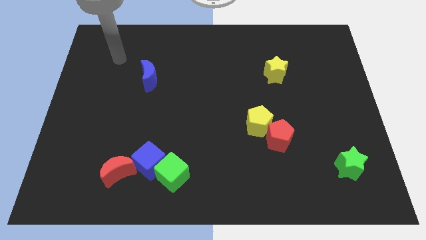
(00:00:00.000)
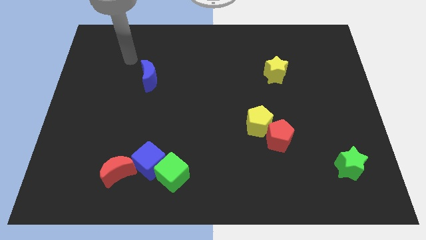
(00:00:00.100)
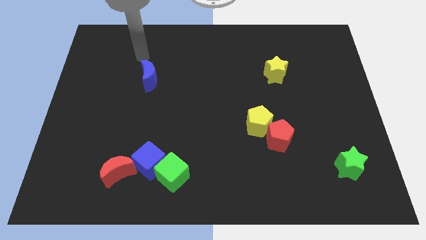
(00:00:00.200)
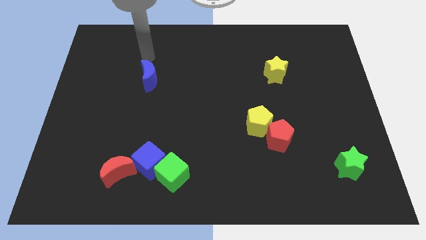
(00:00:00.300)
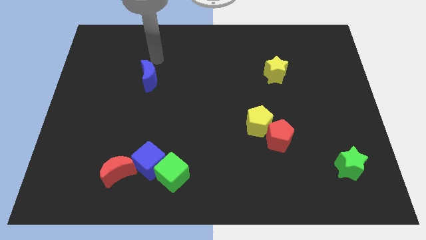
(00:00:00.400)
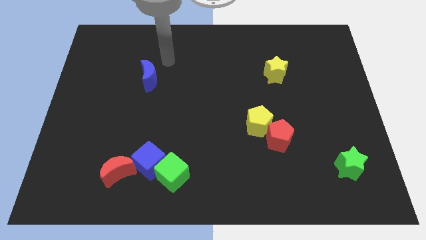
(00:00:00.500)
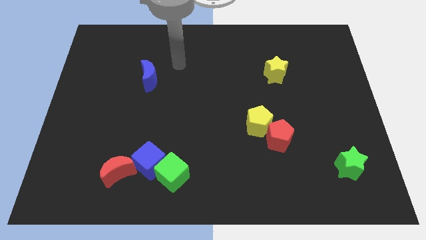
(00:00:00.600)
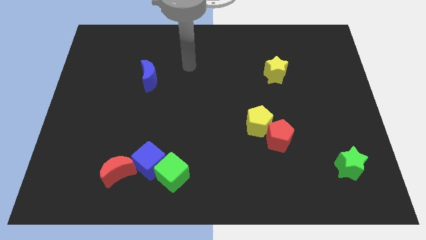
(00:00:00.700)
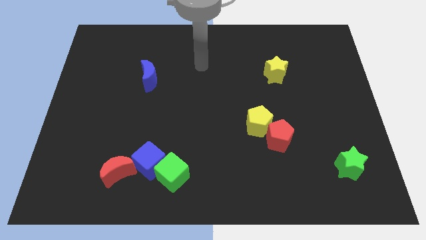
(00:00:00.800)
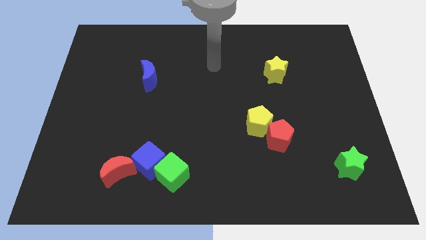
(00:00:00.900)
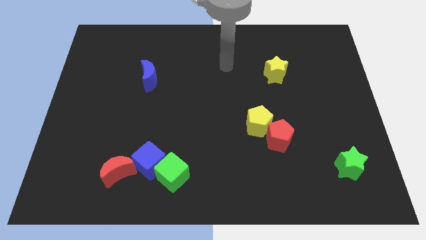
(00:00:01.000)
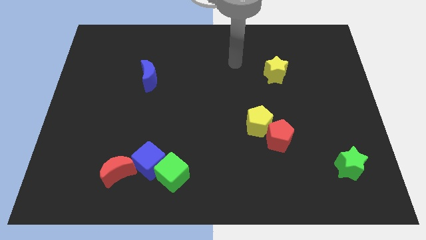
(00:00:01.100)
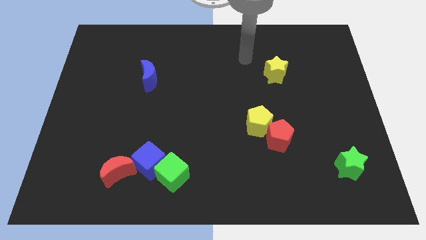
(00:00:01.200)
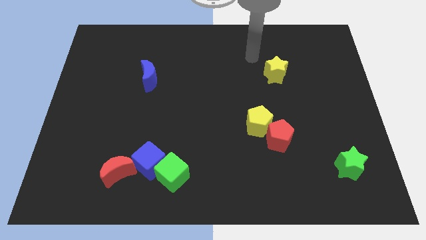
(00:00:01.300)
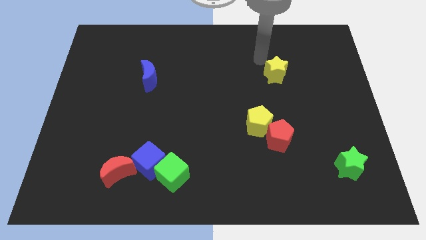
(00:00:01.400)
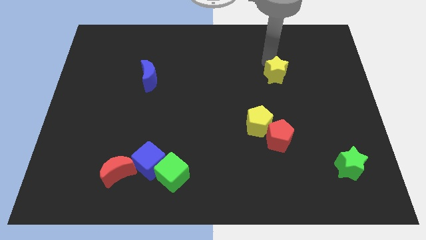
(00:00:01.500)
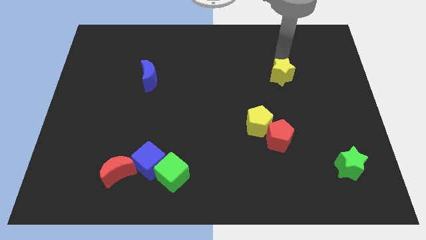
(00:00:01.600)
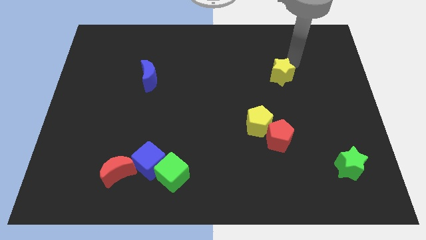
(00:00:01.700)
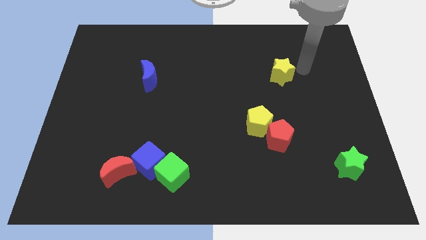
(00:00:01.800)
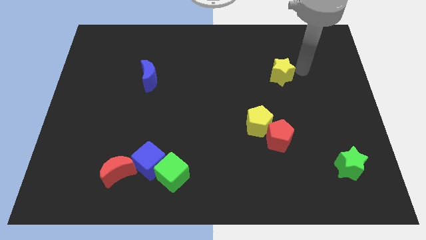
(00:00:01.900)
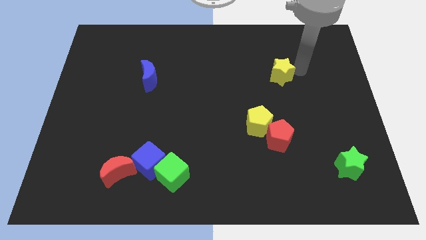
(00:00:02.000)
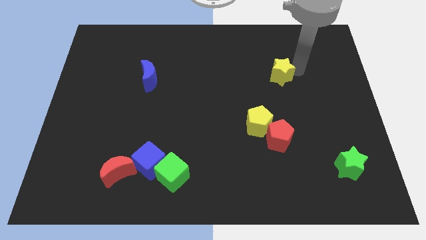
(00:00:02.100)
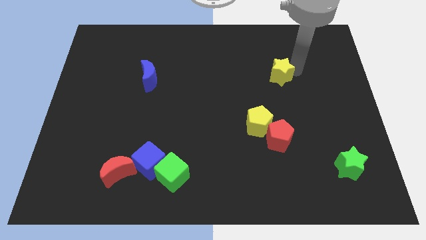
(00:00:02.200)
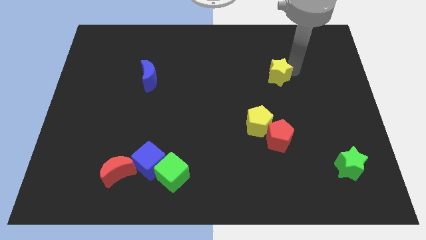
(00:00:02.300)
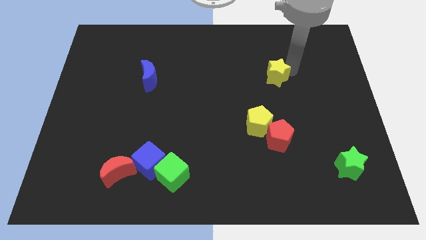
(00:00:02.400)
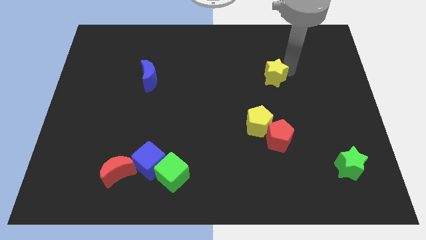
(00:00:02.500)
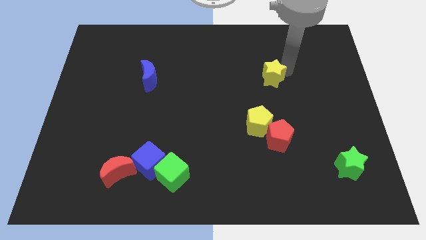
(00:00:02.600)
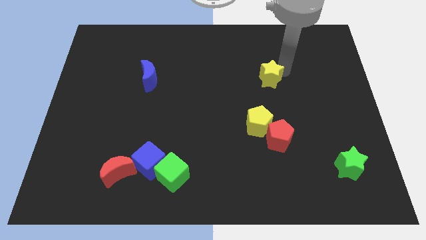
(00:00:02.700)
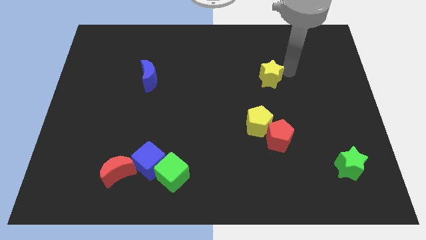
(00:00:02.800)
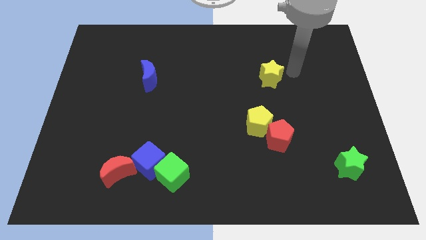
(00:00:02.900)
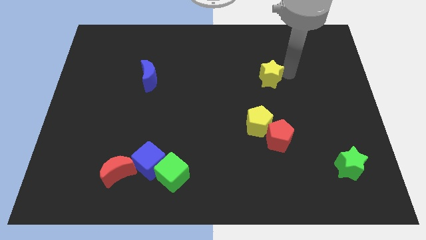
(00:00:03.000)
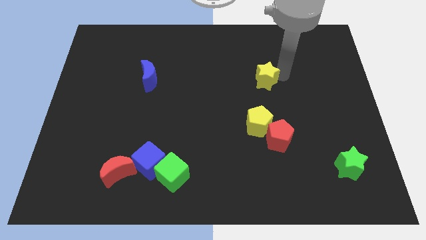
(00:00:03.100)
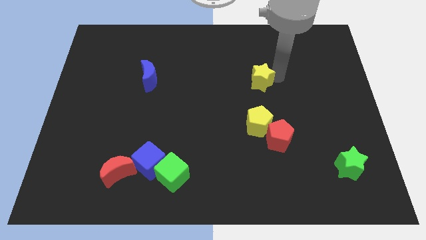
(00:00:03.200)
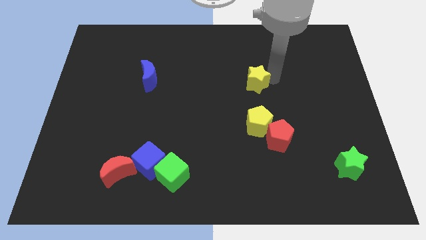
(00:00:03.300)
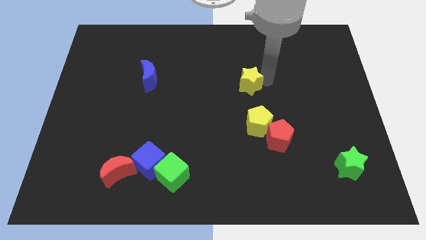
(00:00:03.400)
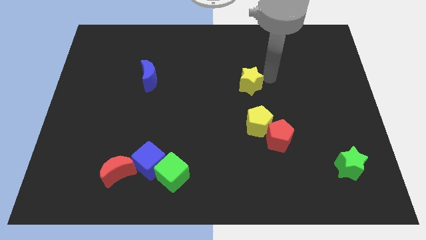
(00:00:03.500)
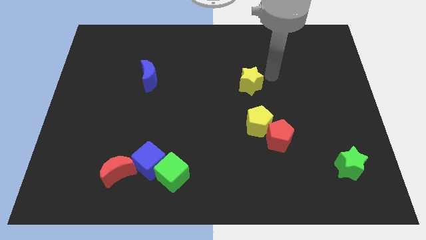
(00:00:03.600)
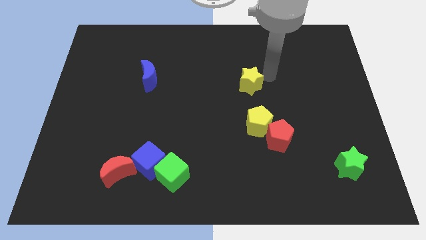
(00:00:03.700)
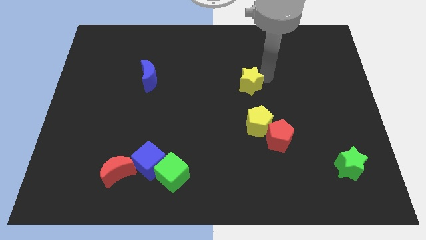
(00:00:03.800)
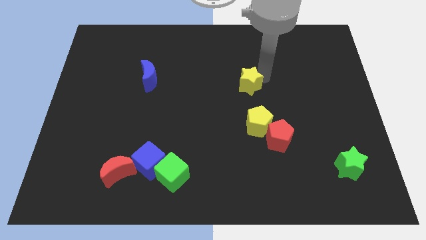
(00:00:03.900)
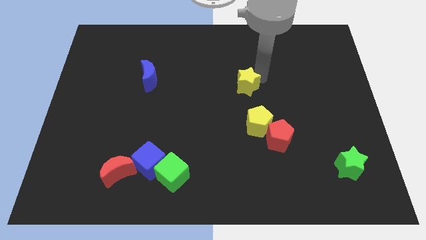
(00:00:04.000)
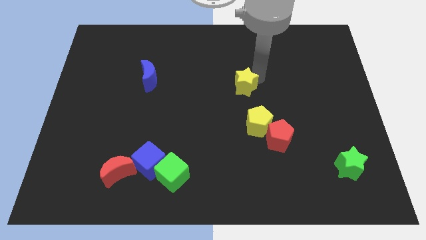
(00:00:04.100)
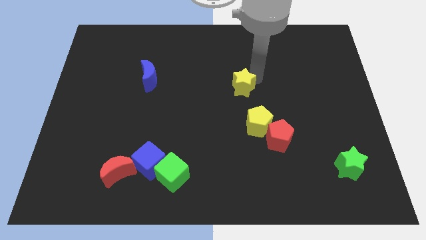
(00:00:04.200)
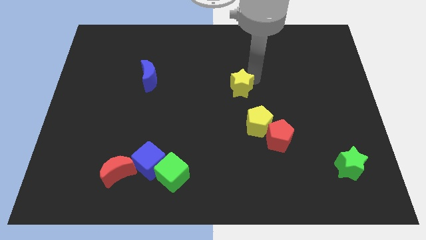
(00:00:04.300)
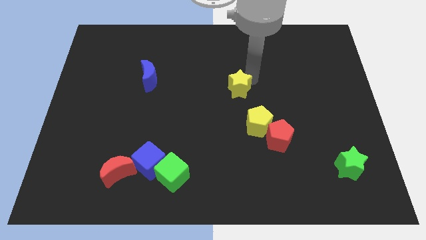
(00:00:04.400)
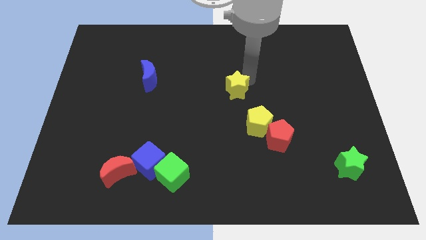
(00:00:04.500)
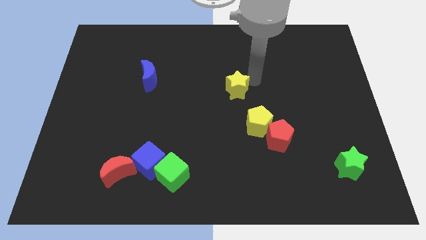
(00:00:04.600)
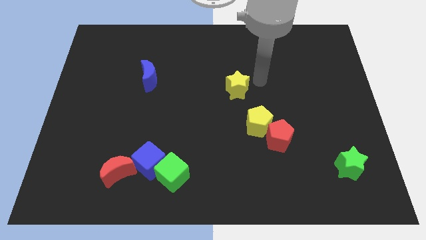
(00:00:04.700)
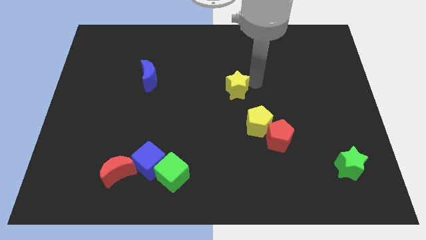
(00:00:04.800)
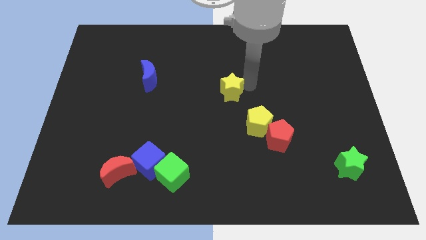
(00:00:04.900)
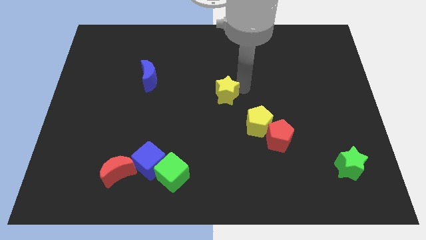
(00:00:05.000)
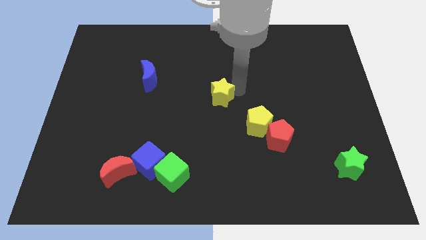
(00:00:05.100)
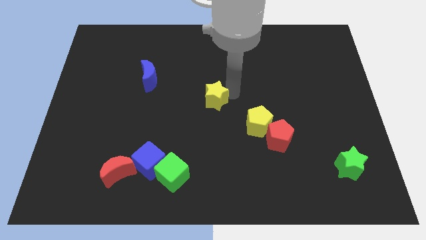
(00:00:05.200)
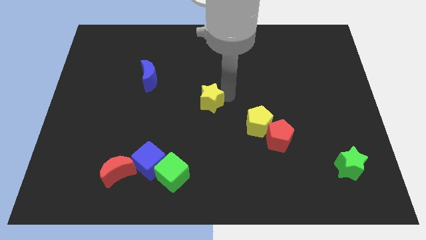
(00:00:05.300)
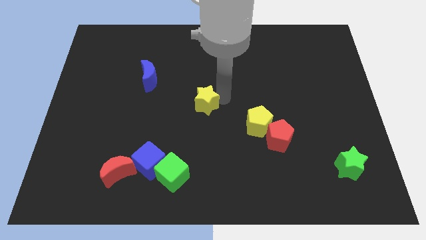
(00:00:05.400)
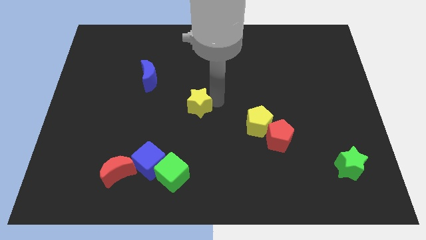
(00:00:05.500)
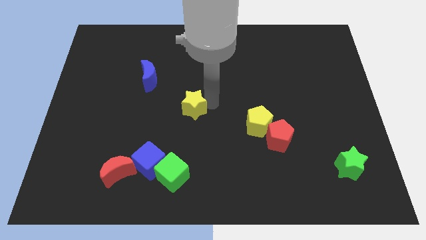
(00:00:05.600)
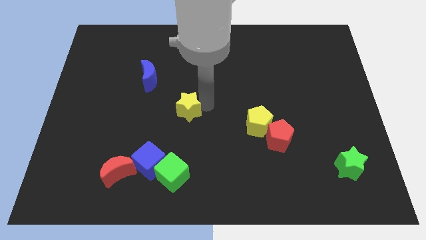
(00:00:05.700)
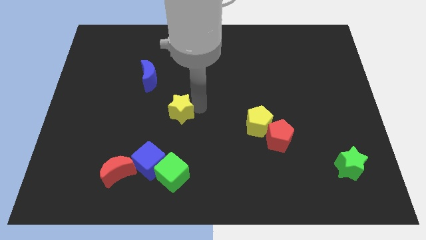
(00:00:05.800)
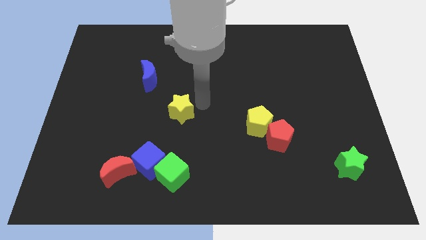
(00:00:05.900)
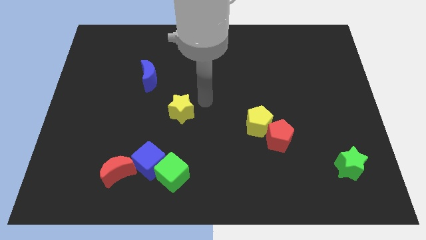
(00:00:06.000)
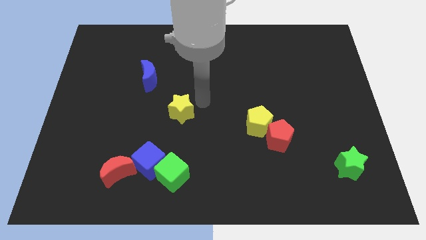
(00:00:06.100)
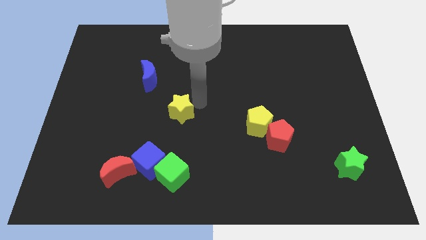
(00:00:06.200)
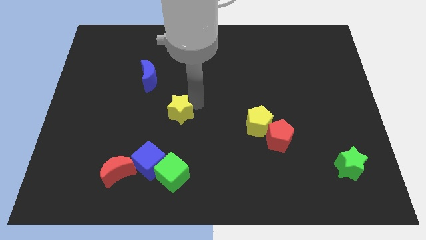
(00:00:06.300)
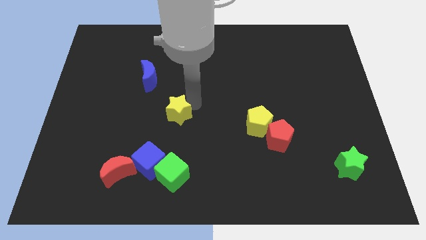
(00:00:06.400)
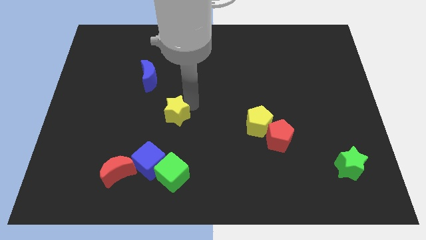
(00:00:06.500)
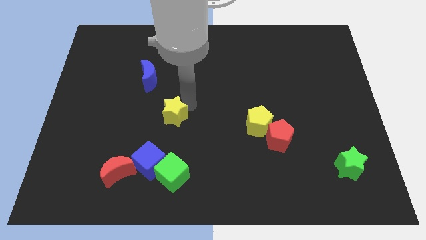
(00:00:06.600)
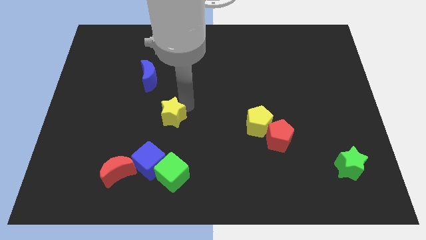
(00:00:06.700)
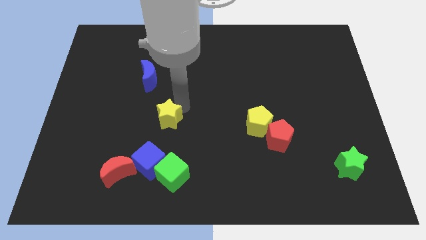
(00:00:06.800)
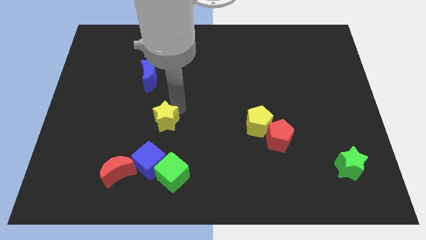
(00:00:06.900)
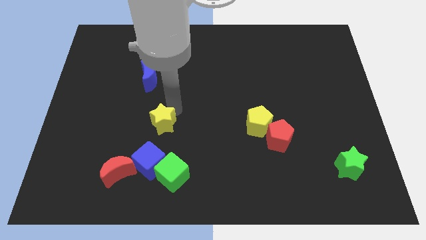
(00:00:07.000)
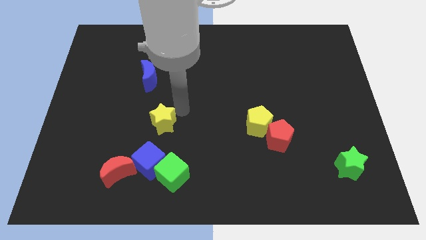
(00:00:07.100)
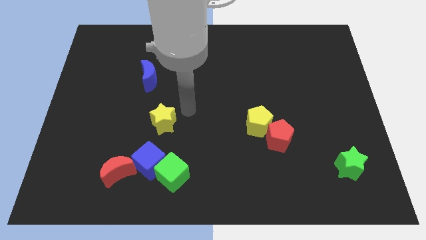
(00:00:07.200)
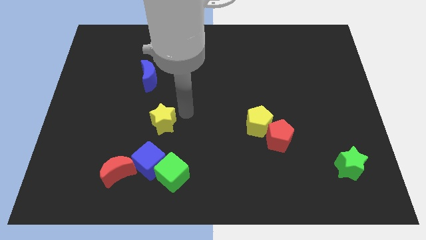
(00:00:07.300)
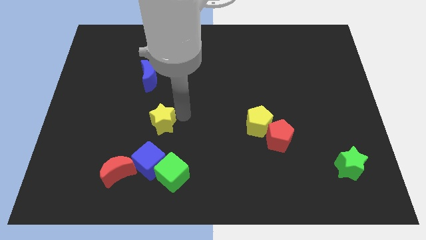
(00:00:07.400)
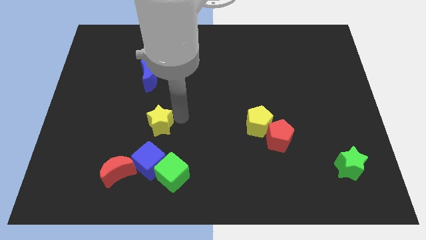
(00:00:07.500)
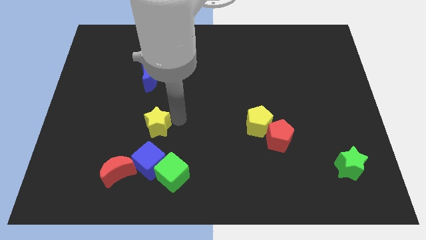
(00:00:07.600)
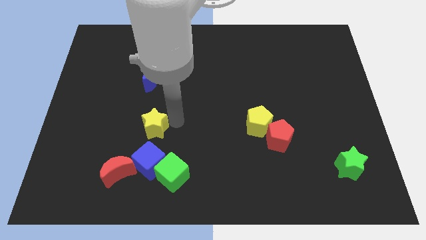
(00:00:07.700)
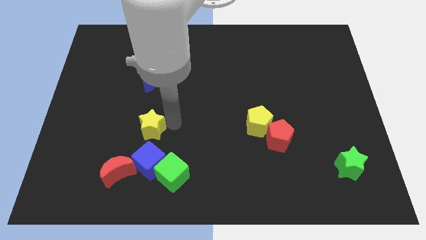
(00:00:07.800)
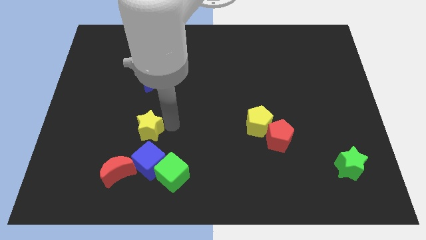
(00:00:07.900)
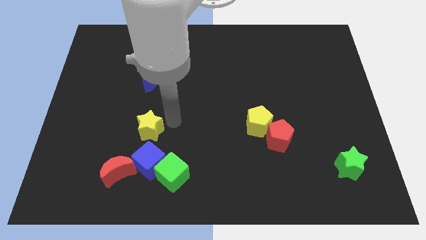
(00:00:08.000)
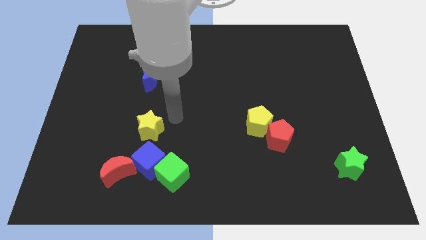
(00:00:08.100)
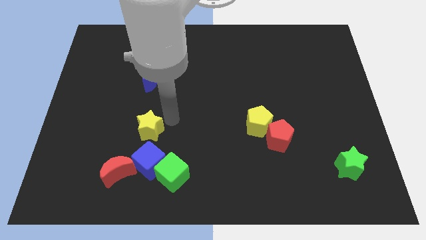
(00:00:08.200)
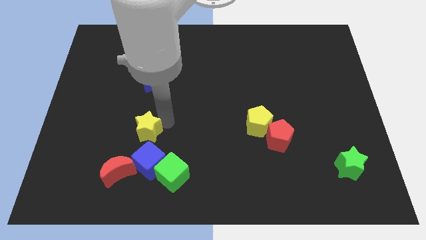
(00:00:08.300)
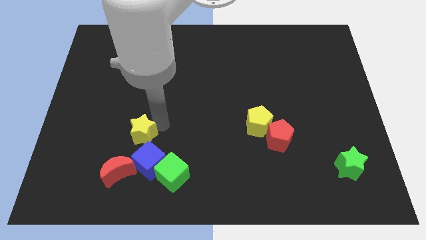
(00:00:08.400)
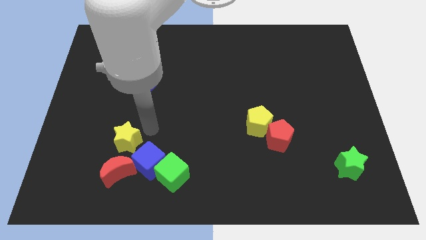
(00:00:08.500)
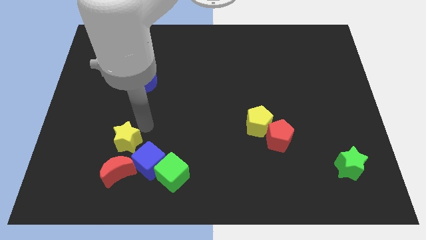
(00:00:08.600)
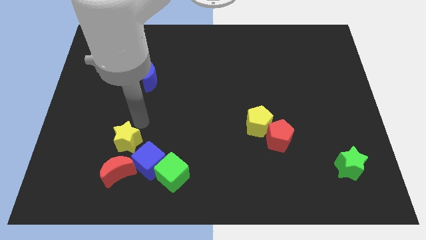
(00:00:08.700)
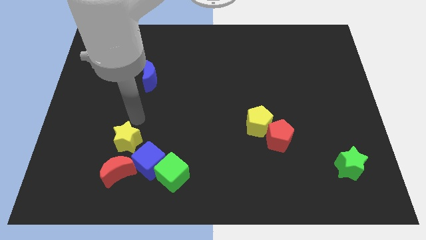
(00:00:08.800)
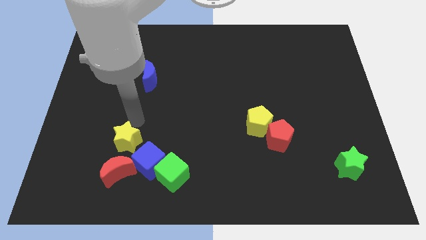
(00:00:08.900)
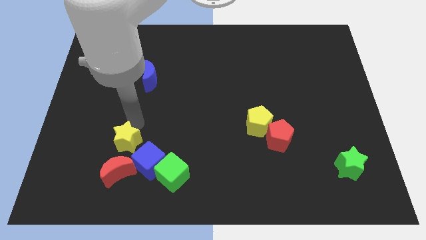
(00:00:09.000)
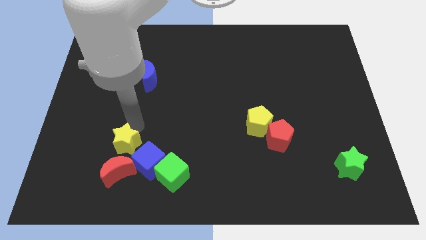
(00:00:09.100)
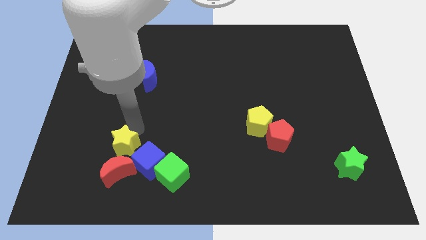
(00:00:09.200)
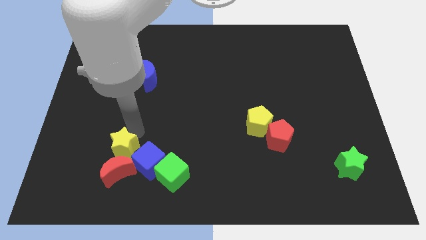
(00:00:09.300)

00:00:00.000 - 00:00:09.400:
put the yellow star towards the red moon
